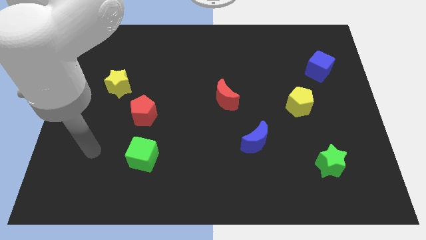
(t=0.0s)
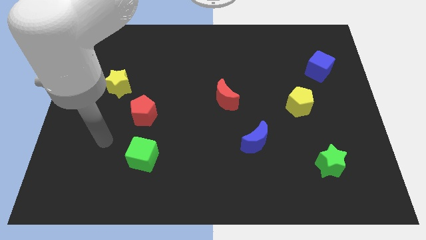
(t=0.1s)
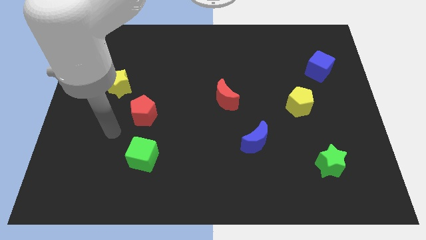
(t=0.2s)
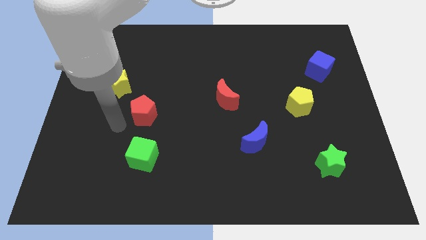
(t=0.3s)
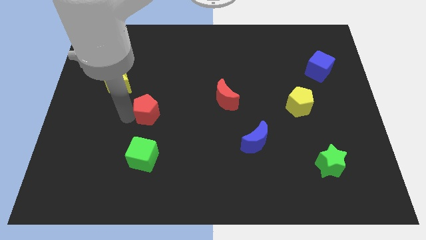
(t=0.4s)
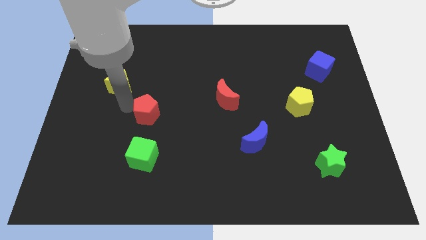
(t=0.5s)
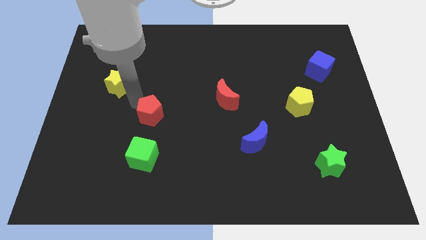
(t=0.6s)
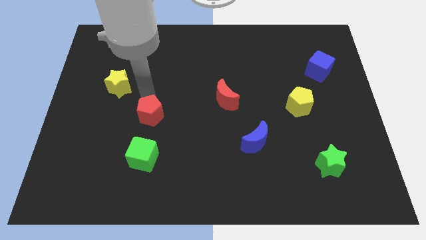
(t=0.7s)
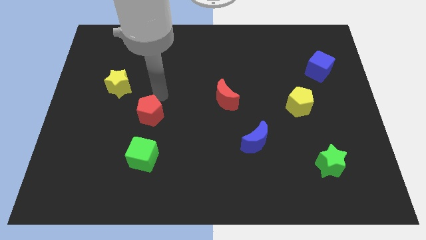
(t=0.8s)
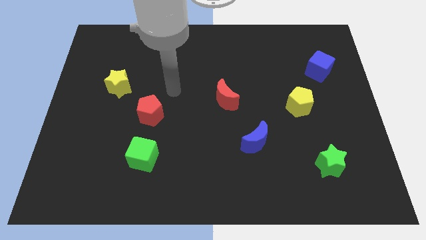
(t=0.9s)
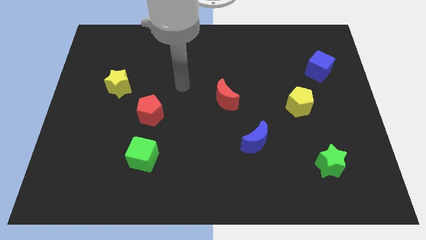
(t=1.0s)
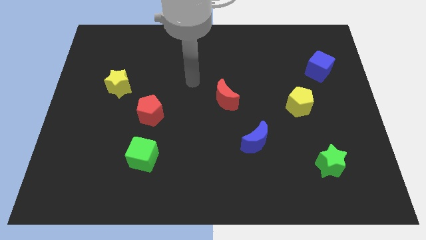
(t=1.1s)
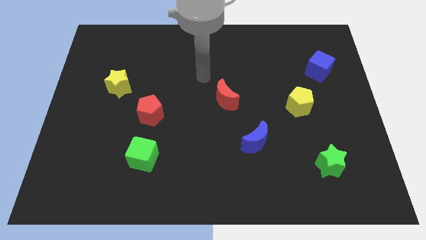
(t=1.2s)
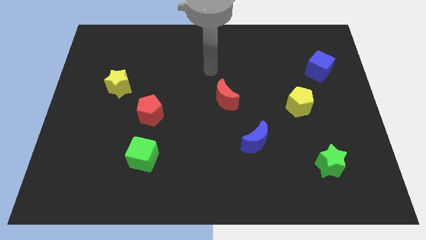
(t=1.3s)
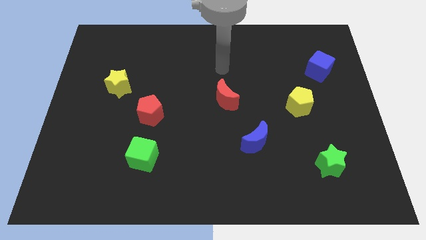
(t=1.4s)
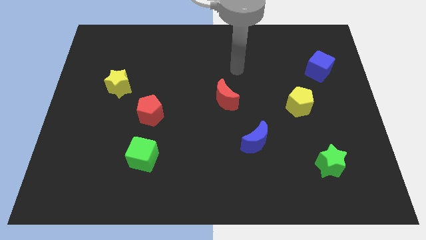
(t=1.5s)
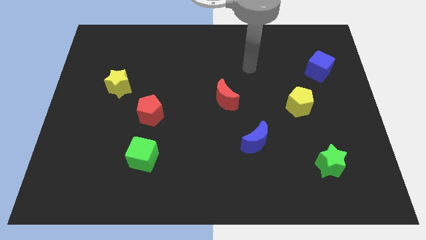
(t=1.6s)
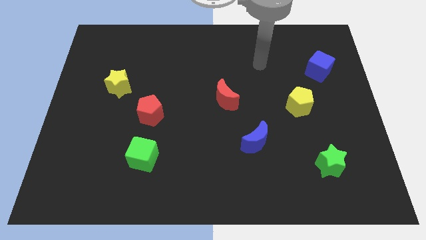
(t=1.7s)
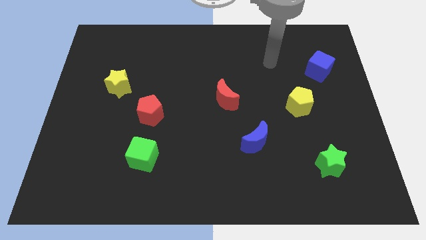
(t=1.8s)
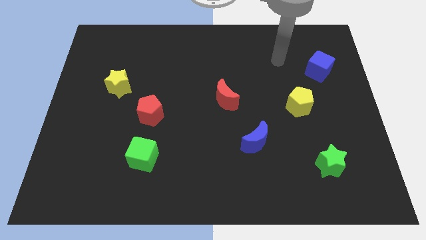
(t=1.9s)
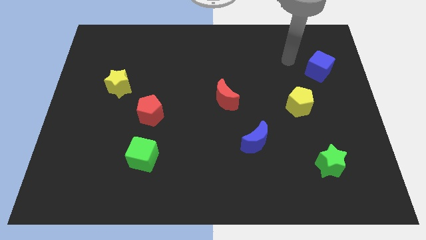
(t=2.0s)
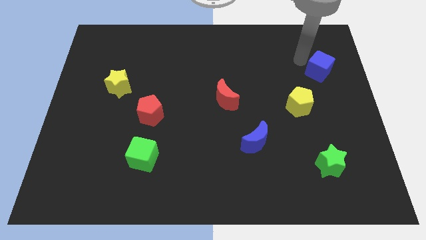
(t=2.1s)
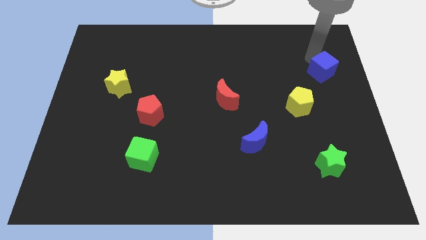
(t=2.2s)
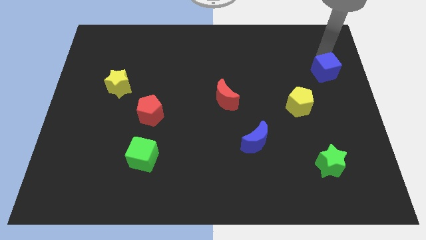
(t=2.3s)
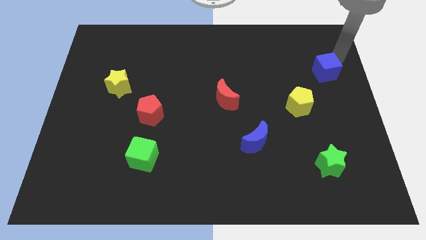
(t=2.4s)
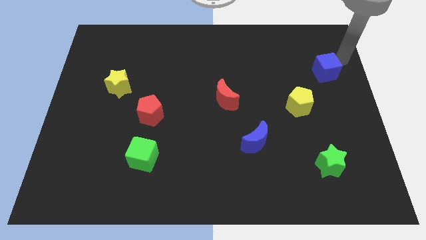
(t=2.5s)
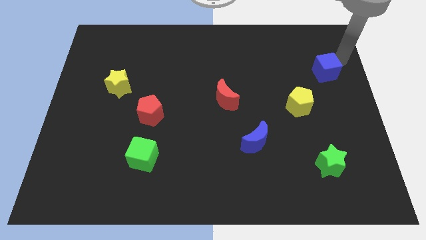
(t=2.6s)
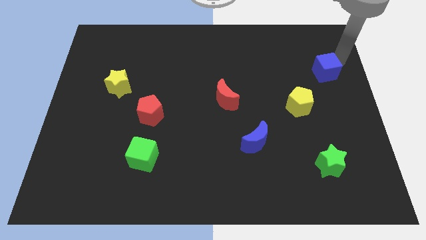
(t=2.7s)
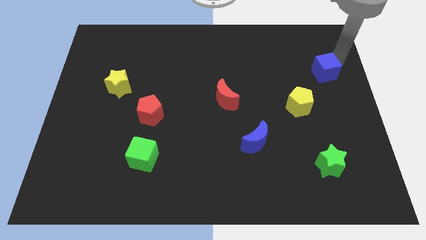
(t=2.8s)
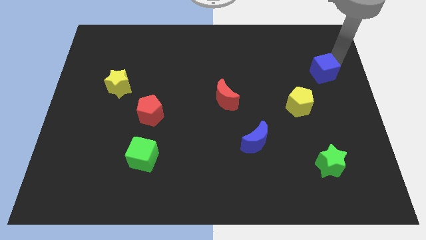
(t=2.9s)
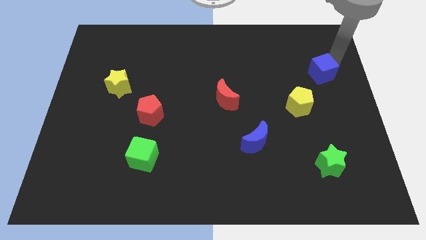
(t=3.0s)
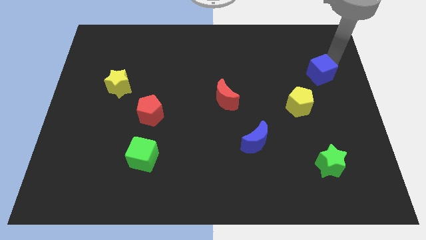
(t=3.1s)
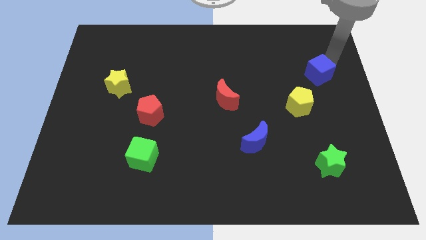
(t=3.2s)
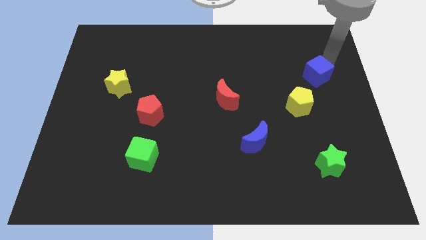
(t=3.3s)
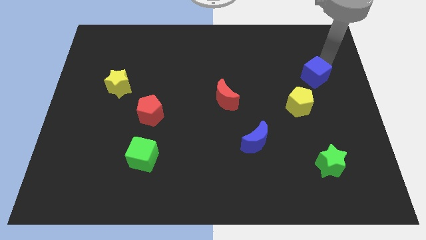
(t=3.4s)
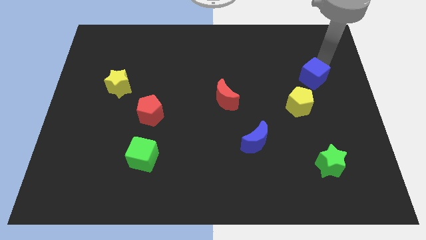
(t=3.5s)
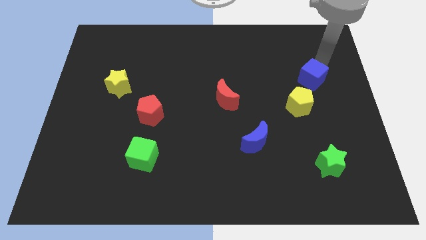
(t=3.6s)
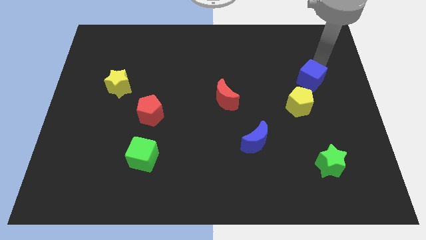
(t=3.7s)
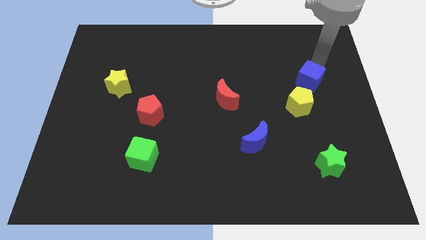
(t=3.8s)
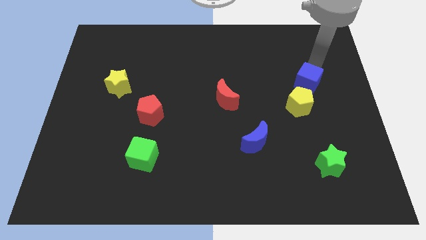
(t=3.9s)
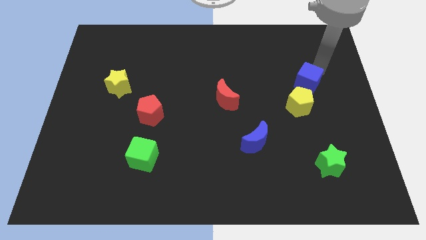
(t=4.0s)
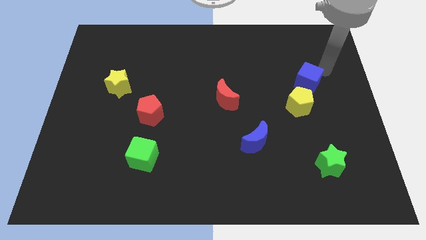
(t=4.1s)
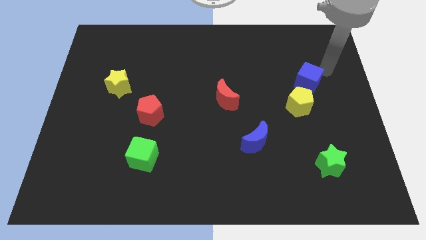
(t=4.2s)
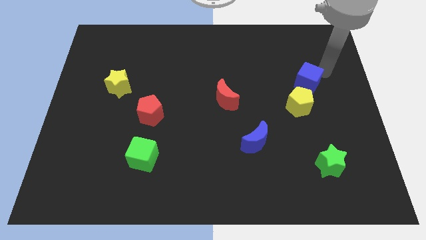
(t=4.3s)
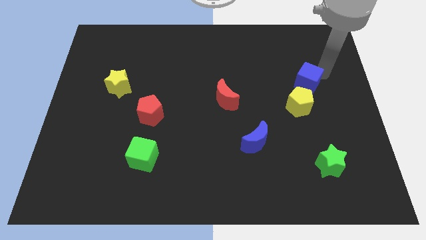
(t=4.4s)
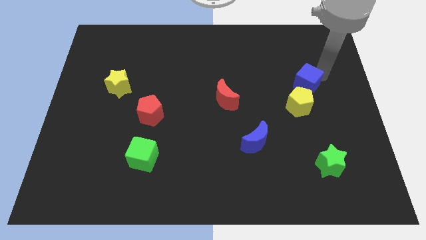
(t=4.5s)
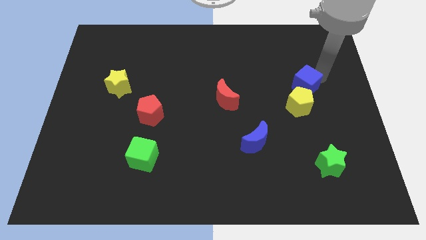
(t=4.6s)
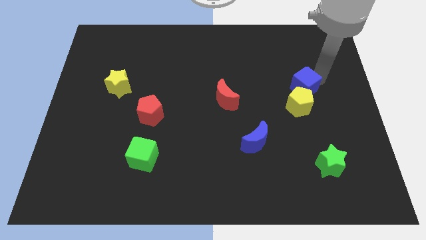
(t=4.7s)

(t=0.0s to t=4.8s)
slightly push the blue cube diagonally down and to the left

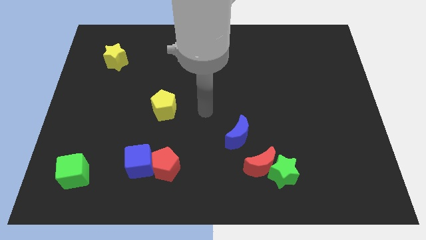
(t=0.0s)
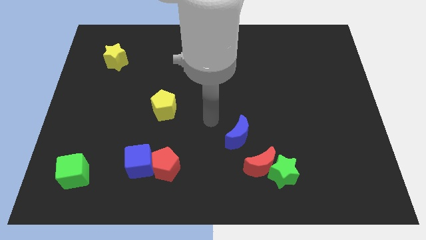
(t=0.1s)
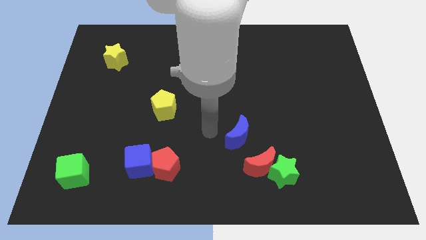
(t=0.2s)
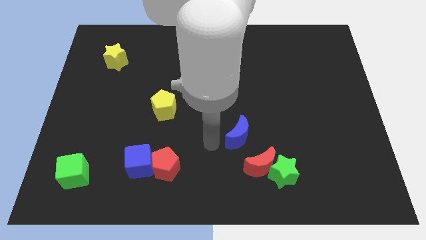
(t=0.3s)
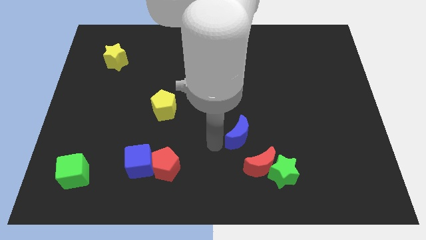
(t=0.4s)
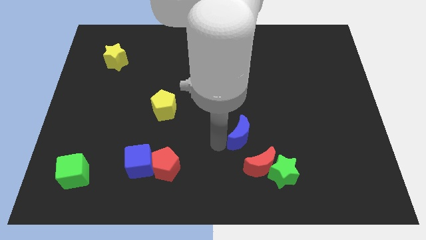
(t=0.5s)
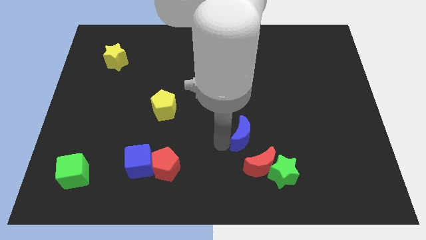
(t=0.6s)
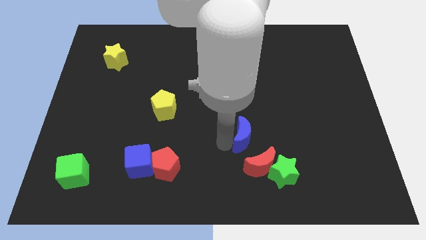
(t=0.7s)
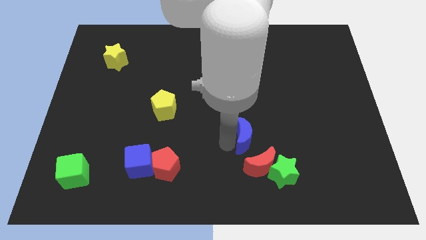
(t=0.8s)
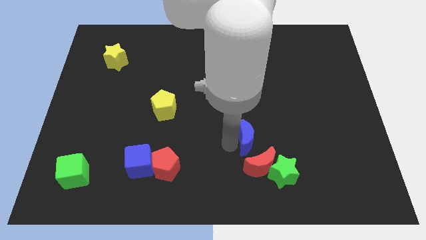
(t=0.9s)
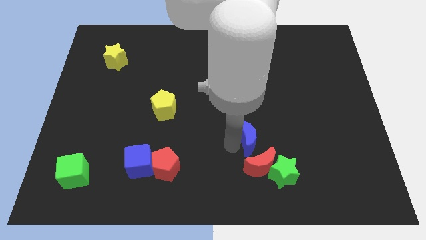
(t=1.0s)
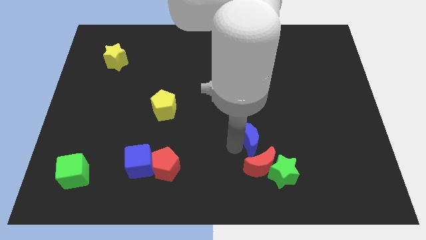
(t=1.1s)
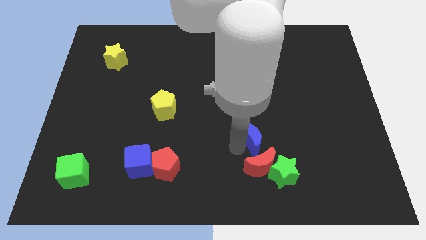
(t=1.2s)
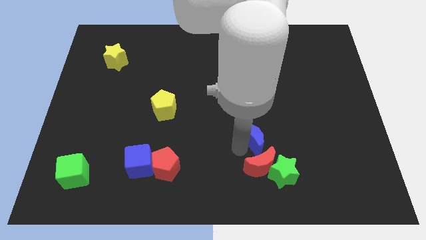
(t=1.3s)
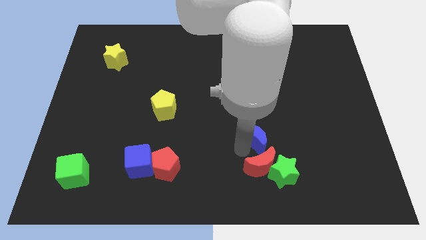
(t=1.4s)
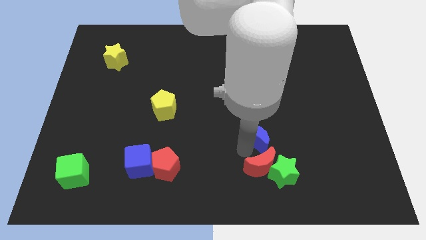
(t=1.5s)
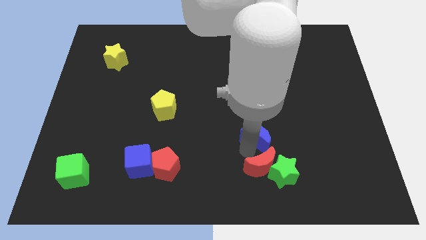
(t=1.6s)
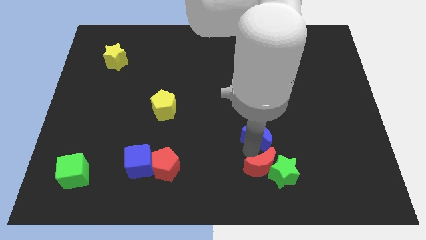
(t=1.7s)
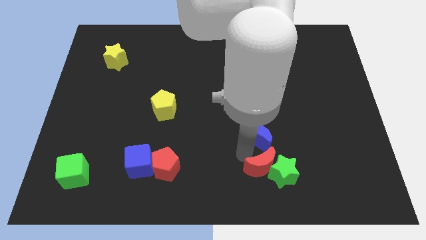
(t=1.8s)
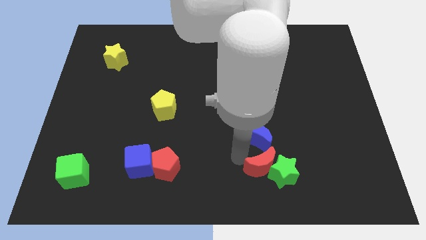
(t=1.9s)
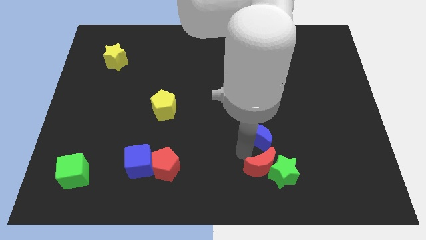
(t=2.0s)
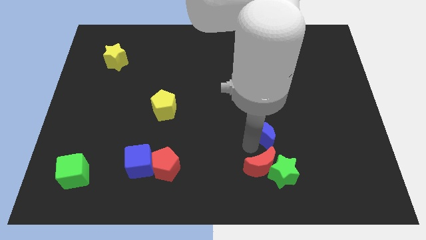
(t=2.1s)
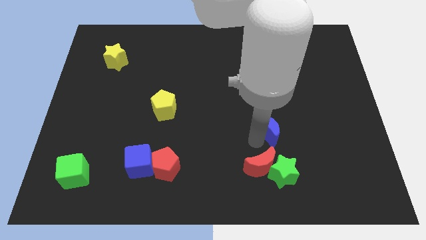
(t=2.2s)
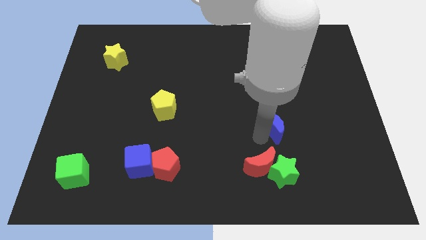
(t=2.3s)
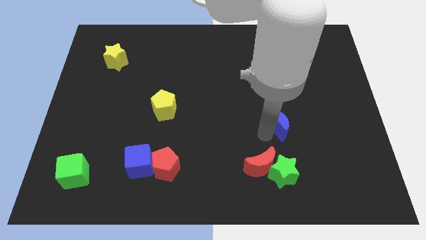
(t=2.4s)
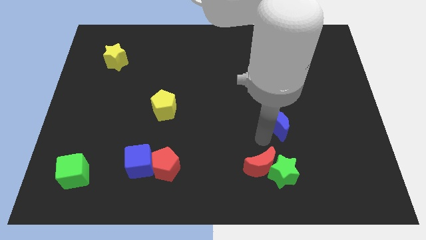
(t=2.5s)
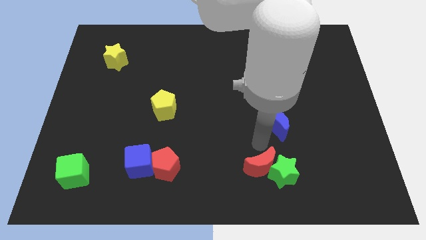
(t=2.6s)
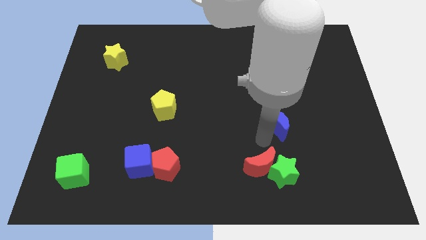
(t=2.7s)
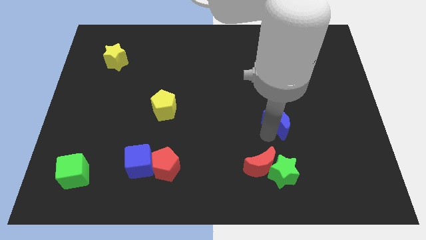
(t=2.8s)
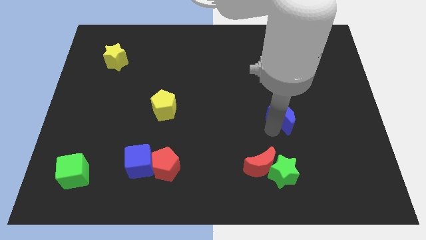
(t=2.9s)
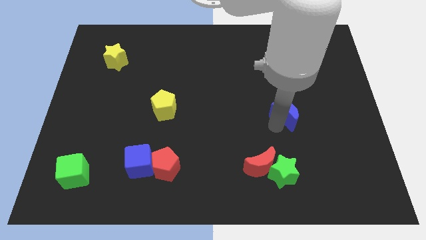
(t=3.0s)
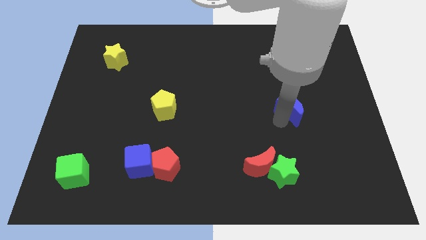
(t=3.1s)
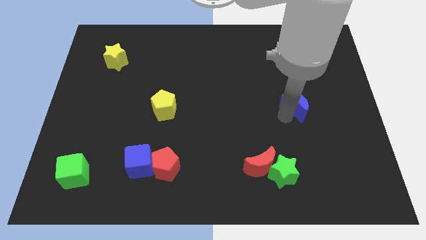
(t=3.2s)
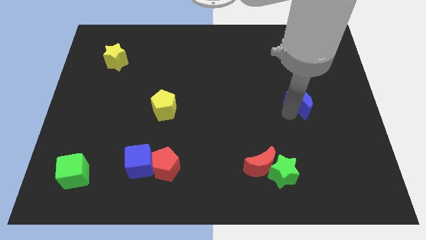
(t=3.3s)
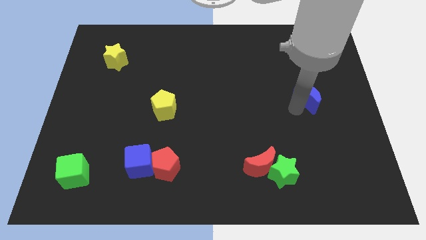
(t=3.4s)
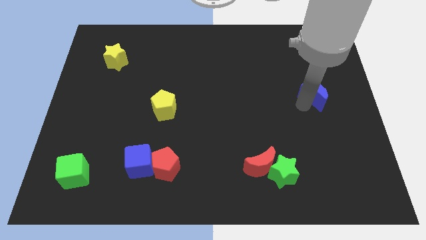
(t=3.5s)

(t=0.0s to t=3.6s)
slide the blue moon up and then to the right
